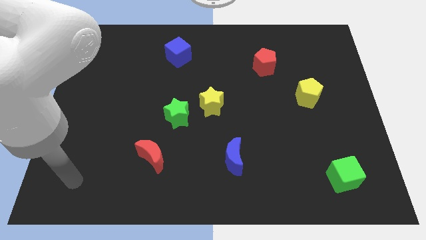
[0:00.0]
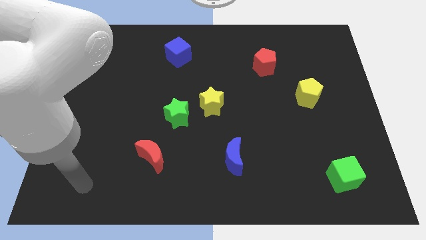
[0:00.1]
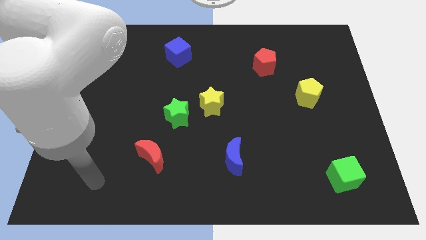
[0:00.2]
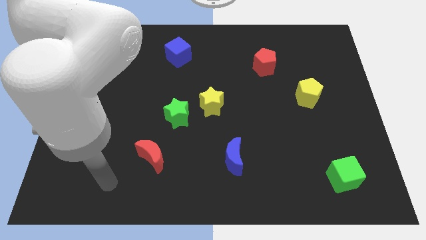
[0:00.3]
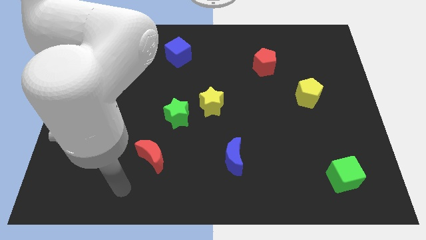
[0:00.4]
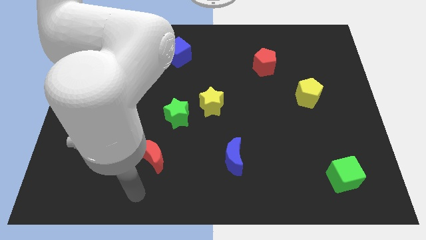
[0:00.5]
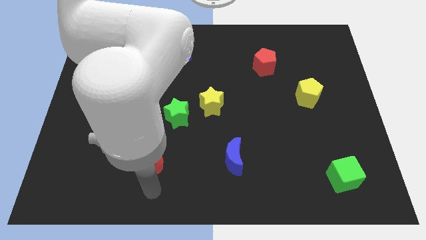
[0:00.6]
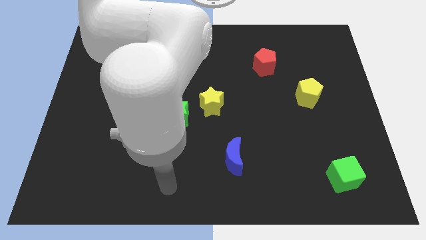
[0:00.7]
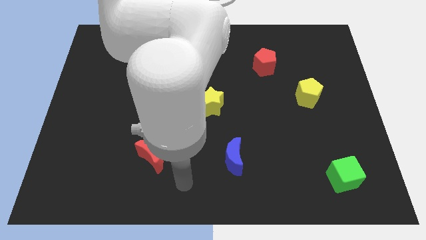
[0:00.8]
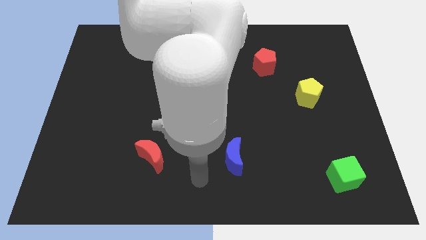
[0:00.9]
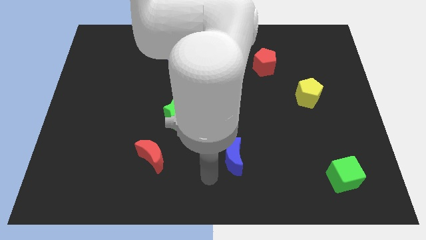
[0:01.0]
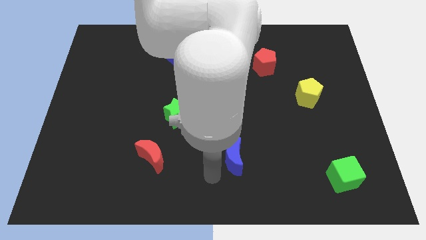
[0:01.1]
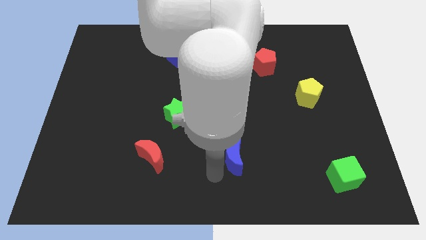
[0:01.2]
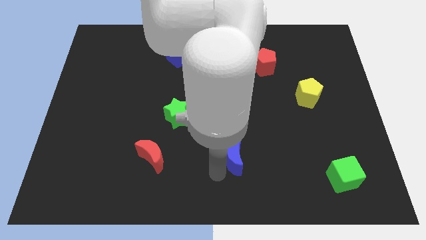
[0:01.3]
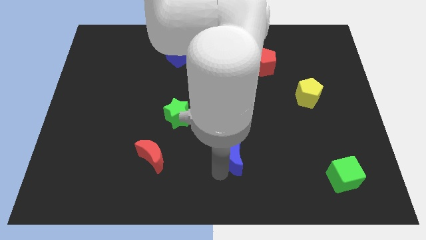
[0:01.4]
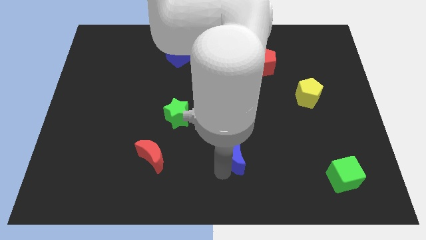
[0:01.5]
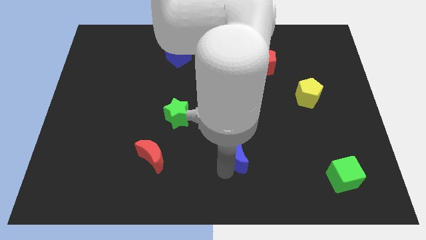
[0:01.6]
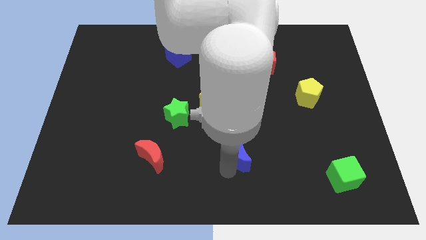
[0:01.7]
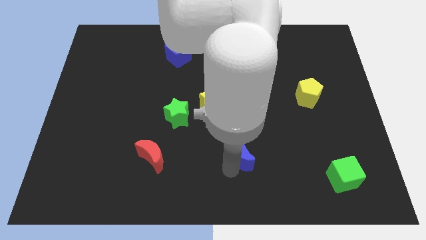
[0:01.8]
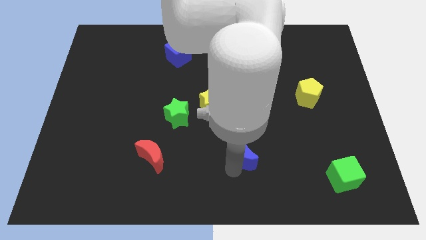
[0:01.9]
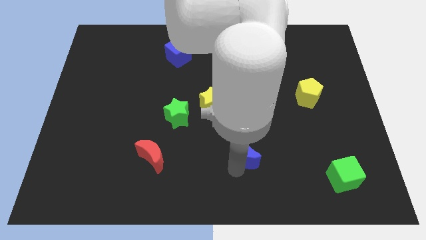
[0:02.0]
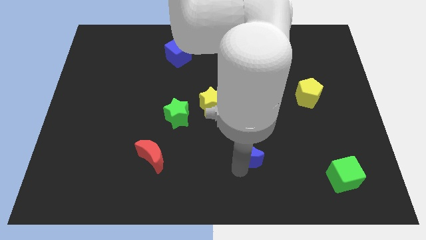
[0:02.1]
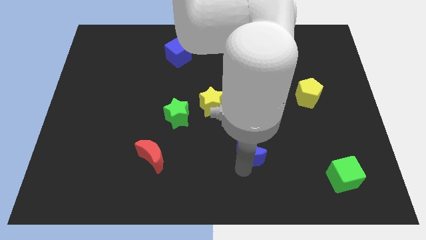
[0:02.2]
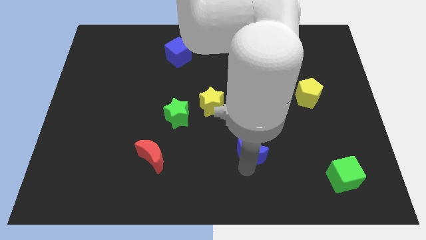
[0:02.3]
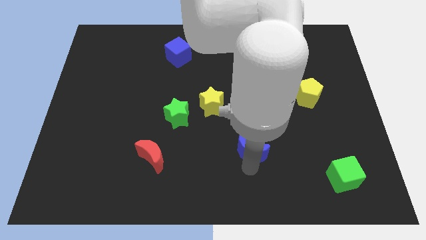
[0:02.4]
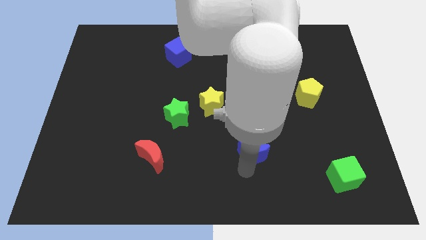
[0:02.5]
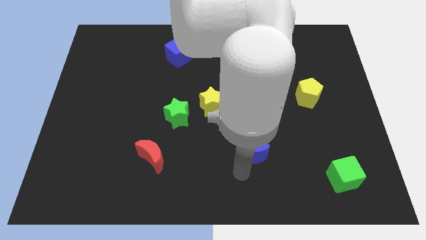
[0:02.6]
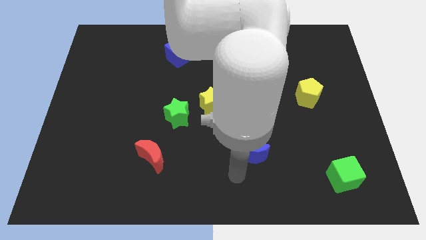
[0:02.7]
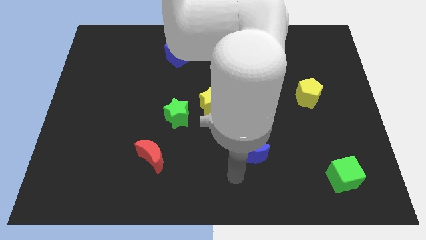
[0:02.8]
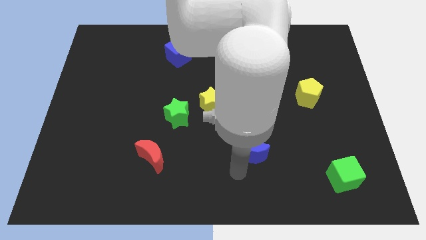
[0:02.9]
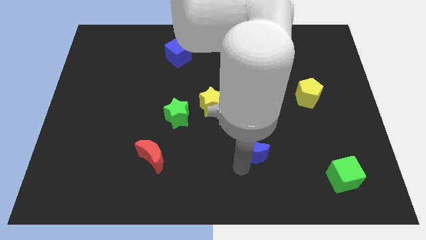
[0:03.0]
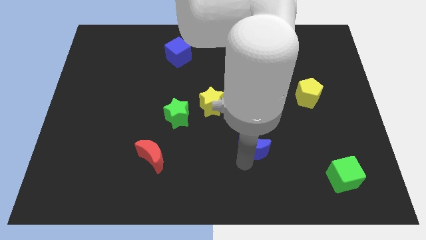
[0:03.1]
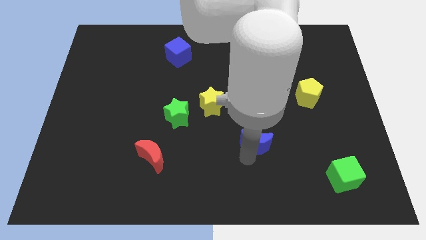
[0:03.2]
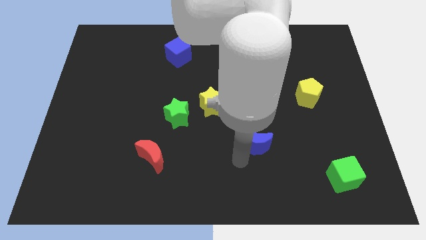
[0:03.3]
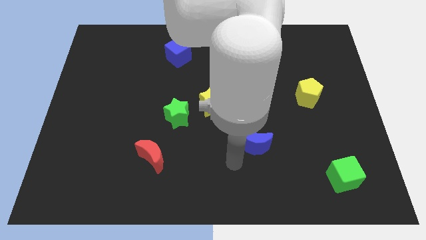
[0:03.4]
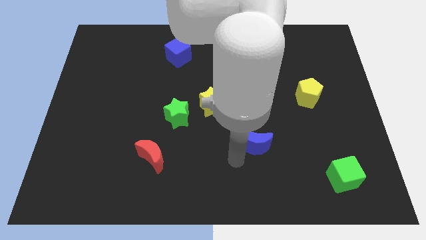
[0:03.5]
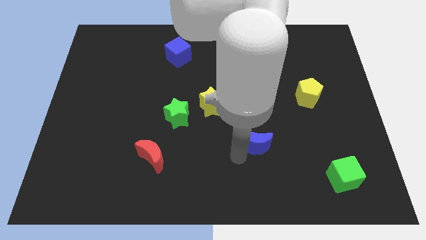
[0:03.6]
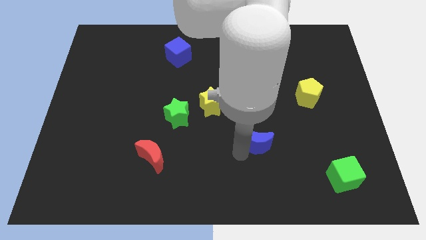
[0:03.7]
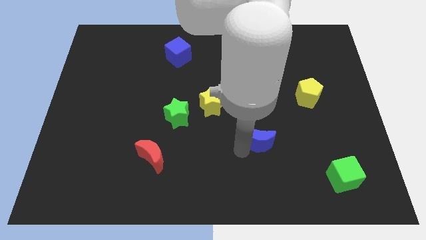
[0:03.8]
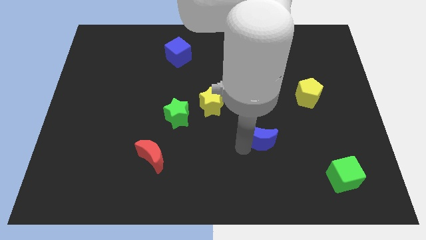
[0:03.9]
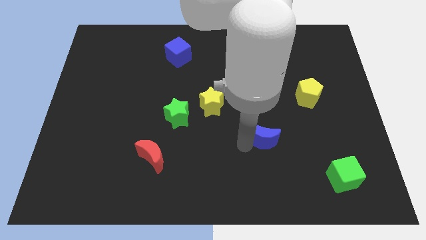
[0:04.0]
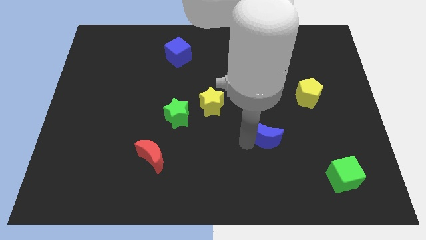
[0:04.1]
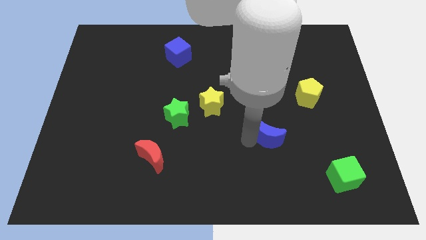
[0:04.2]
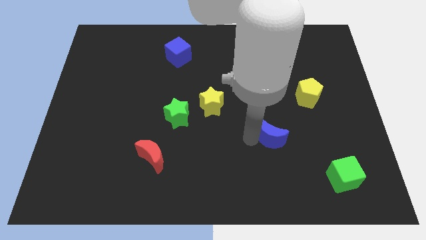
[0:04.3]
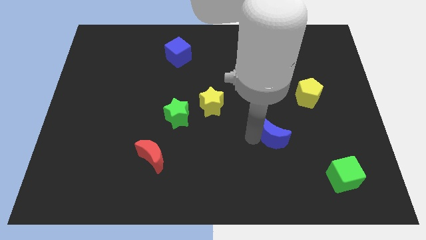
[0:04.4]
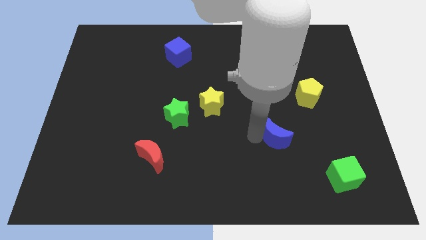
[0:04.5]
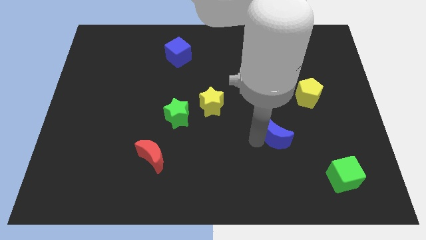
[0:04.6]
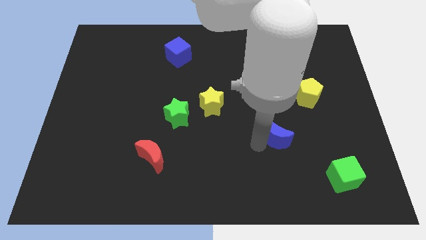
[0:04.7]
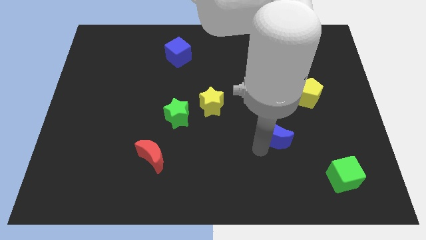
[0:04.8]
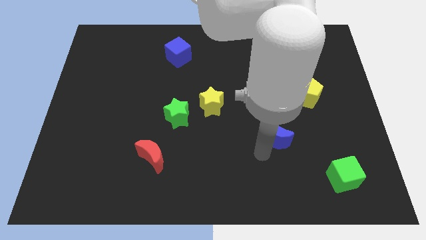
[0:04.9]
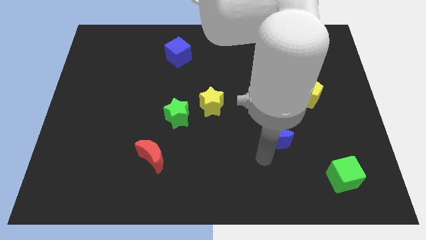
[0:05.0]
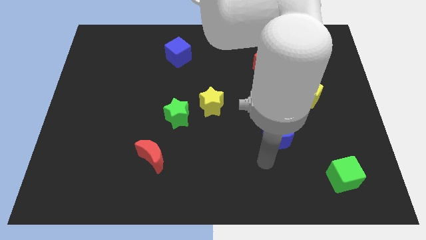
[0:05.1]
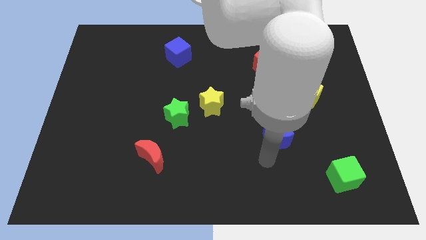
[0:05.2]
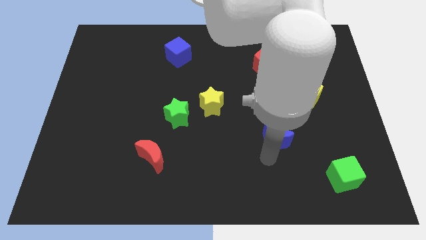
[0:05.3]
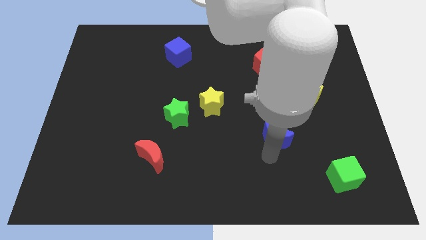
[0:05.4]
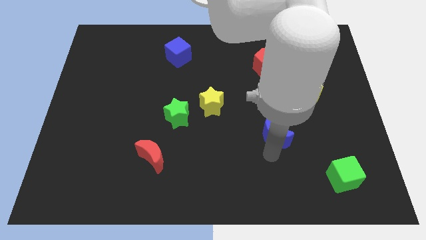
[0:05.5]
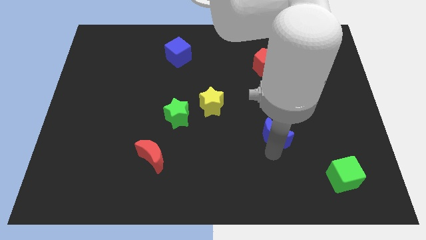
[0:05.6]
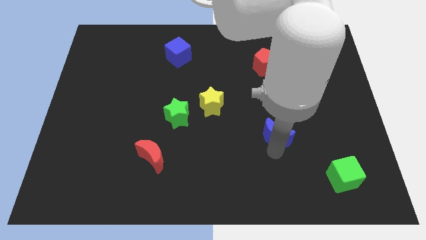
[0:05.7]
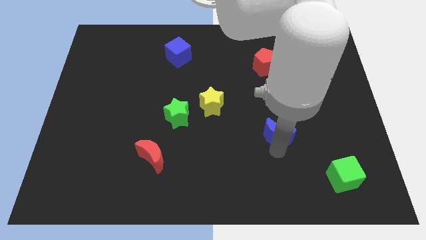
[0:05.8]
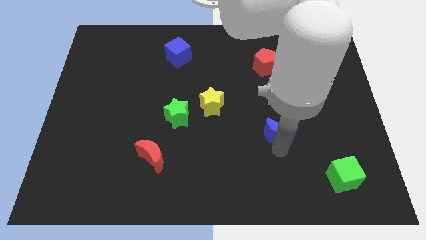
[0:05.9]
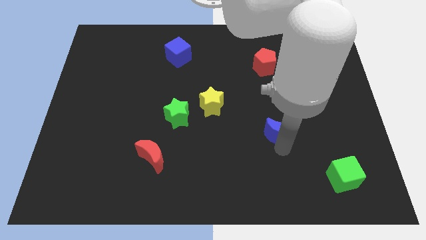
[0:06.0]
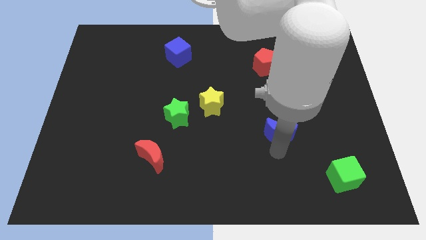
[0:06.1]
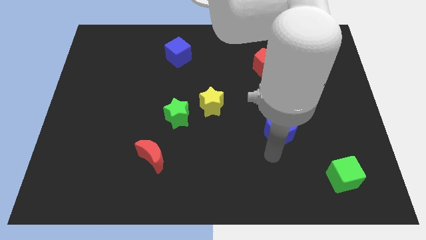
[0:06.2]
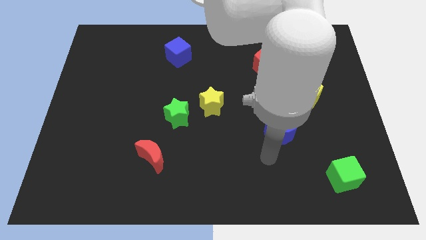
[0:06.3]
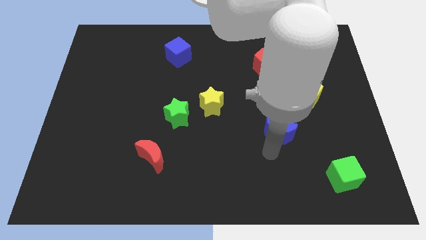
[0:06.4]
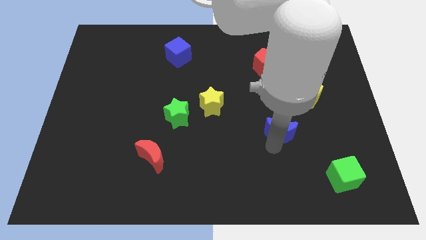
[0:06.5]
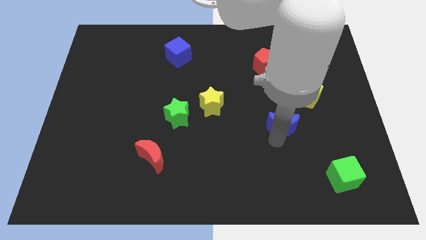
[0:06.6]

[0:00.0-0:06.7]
put the blue moon diagonally down and to the left of the yellow pentagon

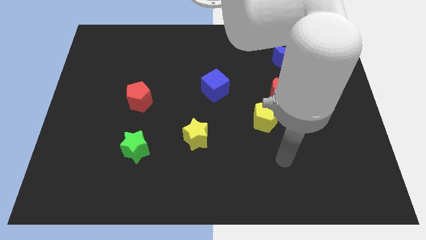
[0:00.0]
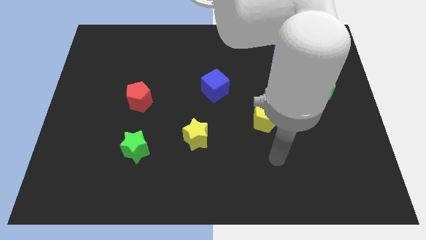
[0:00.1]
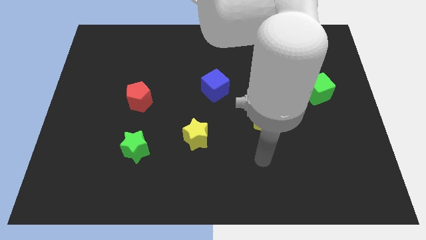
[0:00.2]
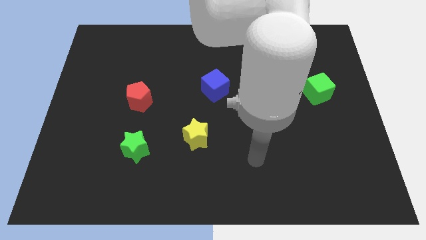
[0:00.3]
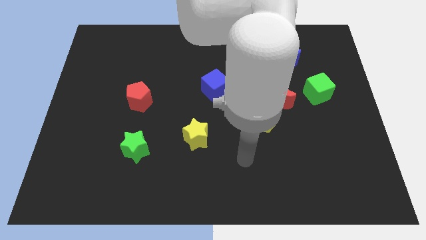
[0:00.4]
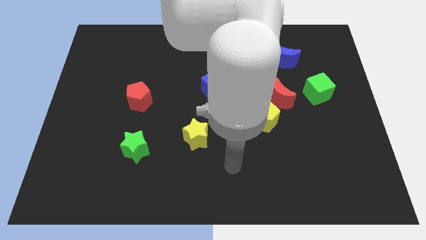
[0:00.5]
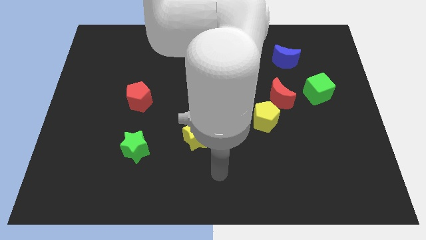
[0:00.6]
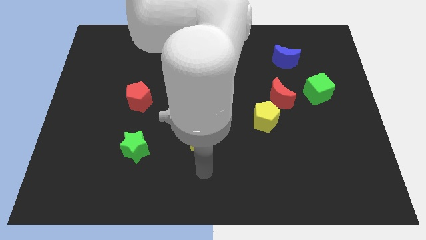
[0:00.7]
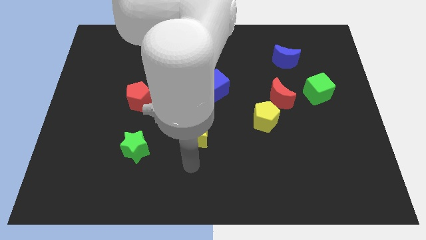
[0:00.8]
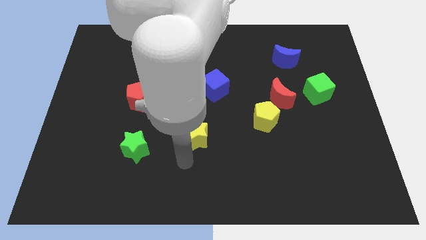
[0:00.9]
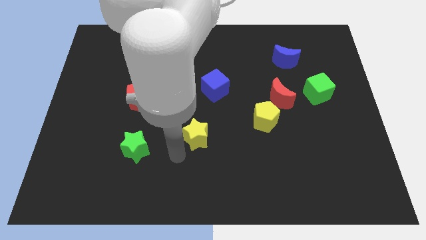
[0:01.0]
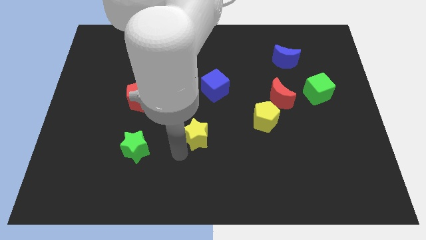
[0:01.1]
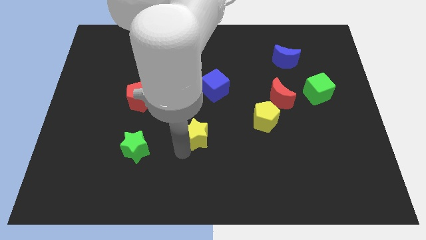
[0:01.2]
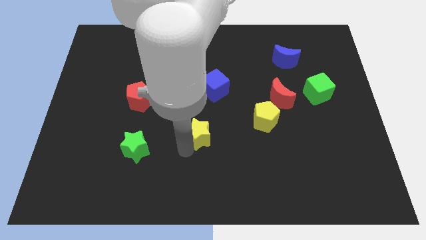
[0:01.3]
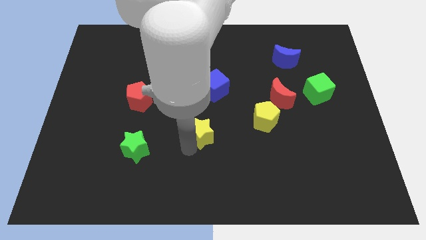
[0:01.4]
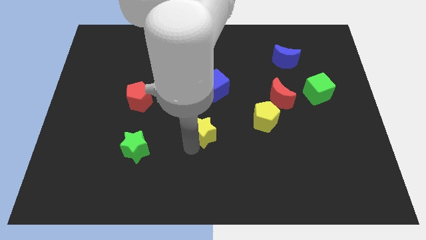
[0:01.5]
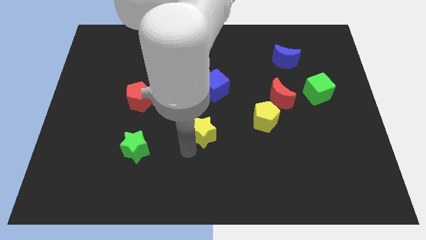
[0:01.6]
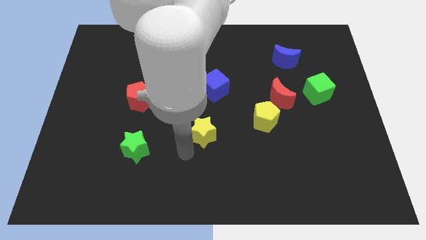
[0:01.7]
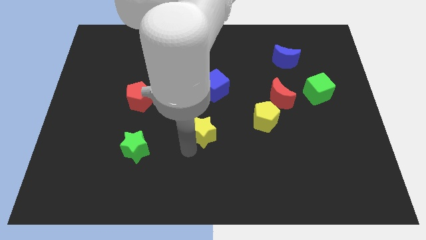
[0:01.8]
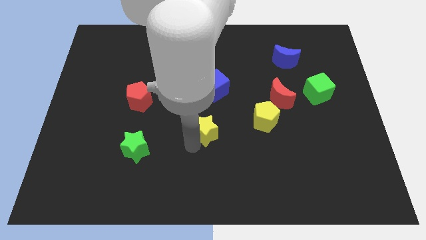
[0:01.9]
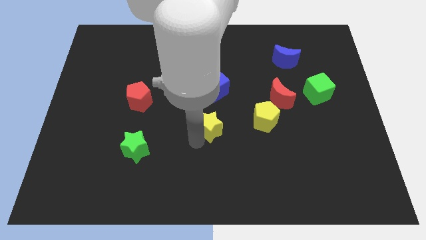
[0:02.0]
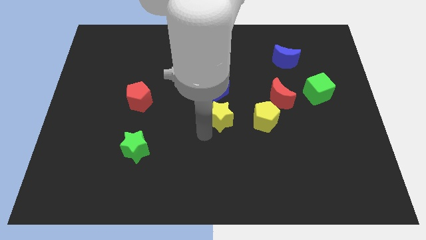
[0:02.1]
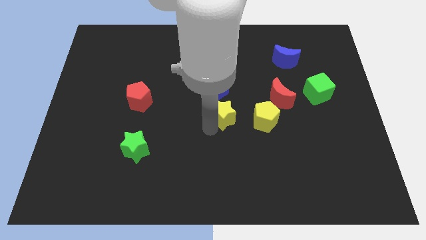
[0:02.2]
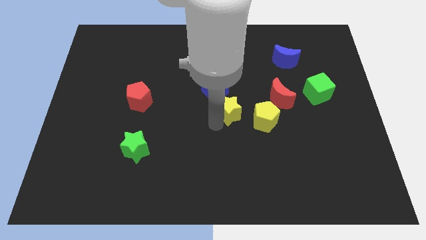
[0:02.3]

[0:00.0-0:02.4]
slide the yellow star just left of the red moon
